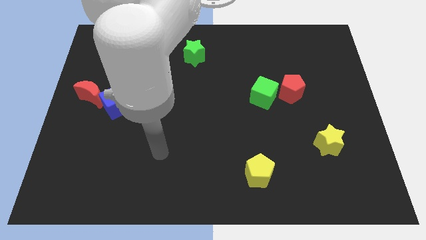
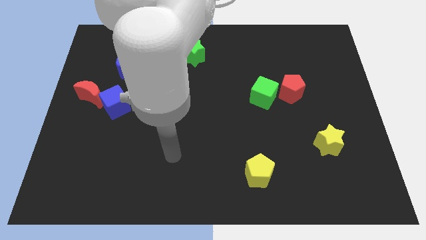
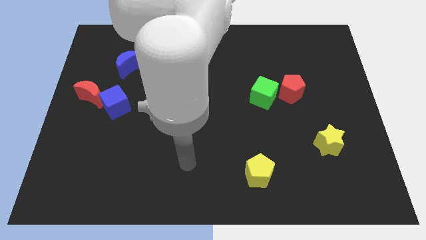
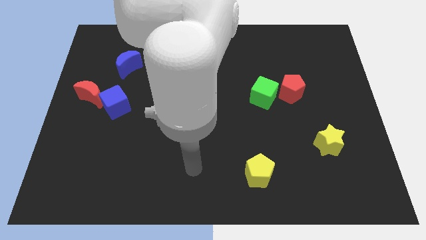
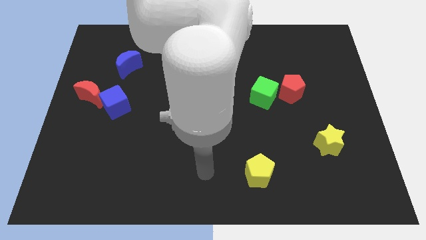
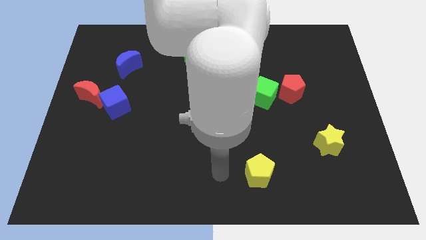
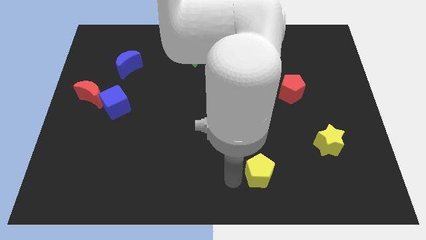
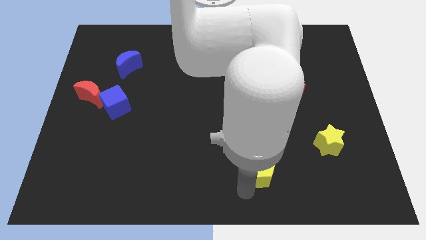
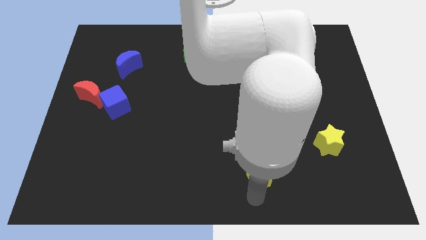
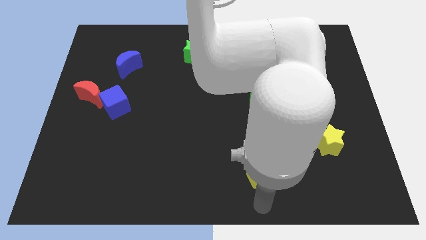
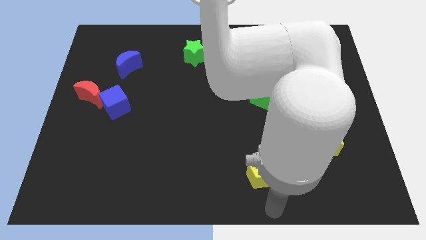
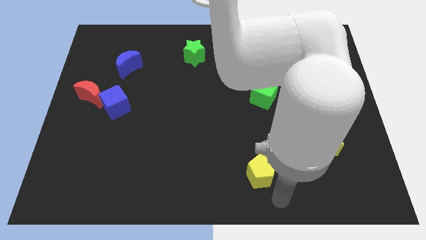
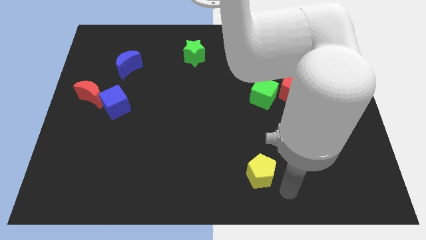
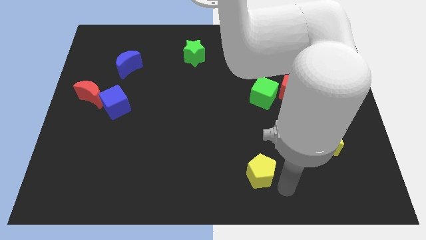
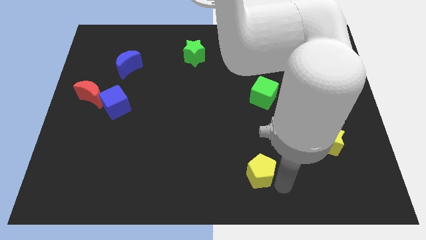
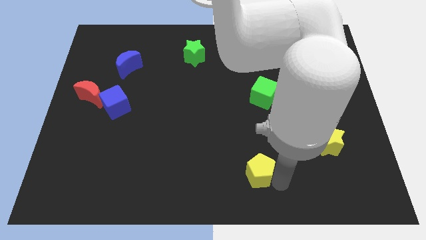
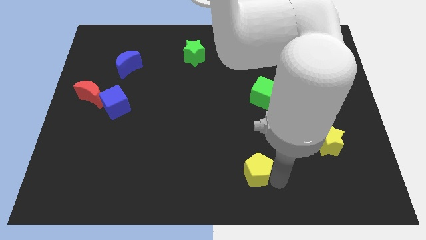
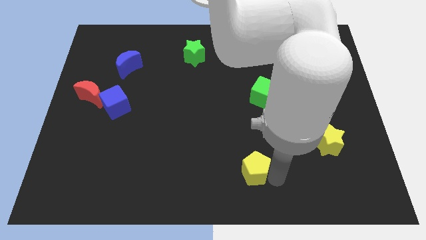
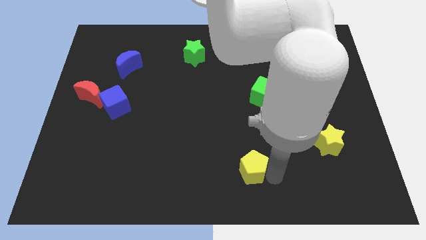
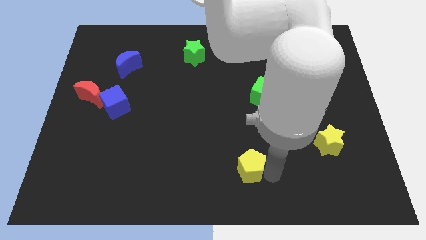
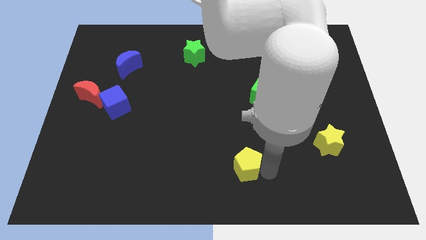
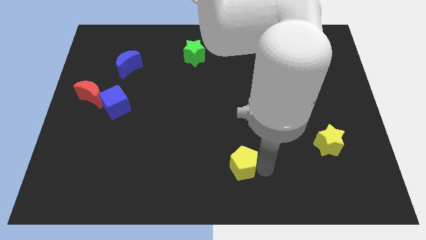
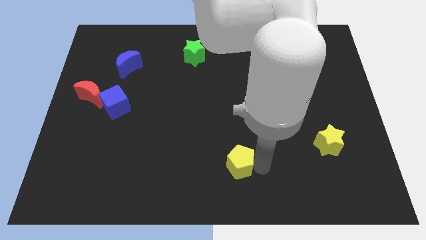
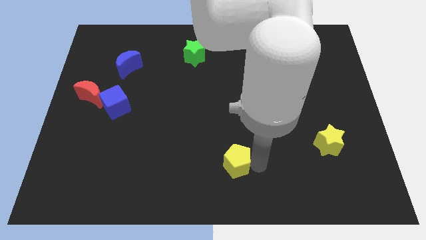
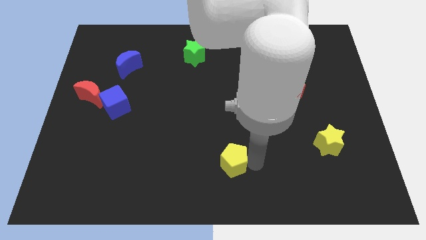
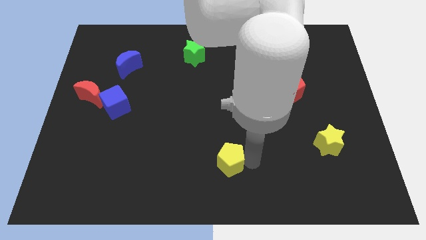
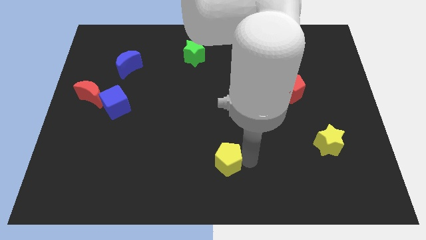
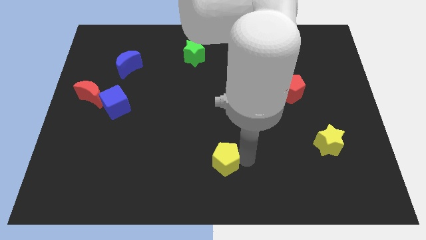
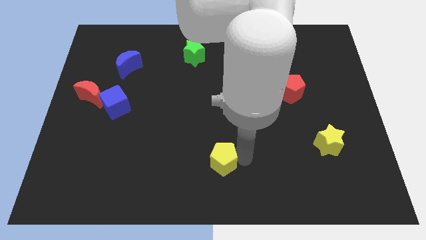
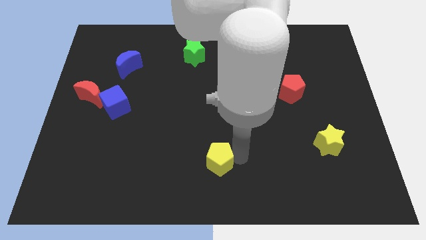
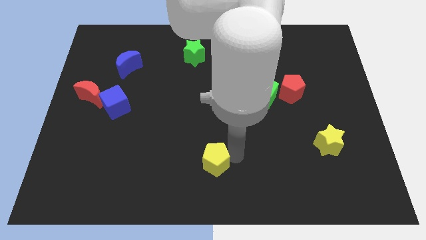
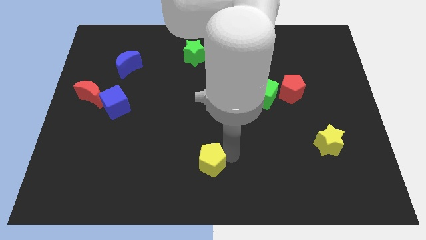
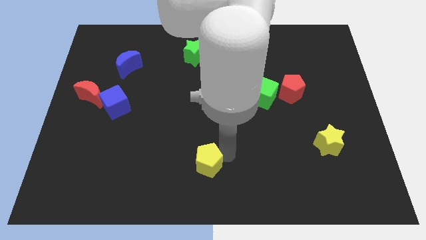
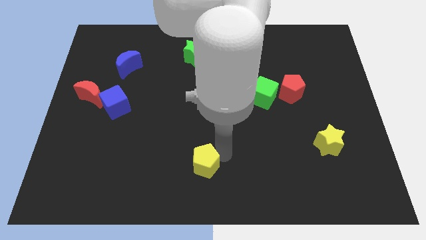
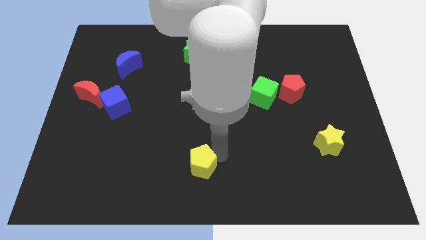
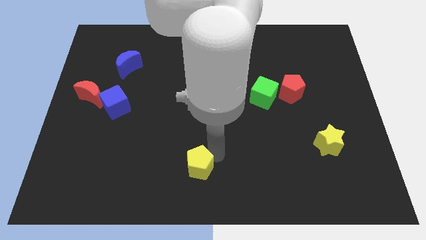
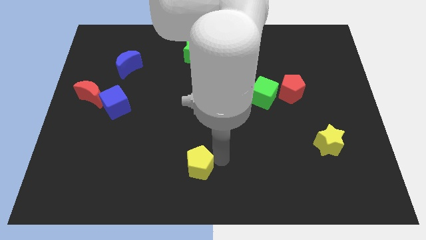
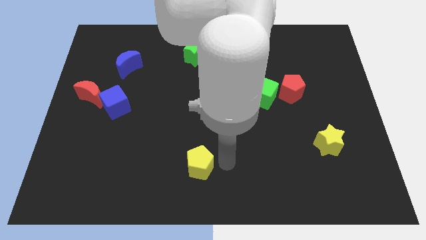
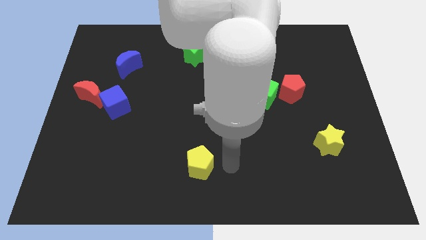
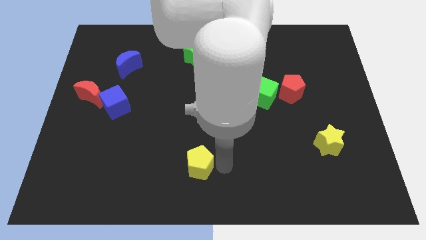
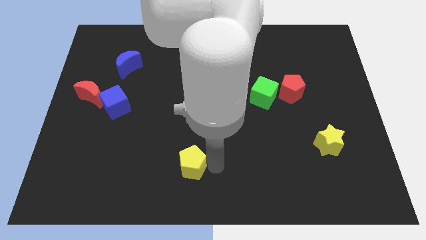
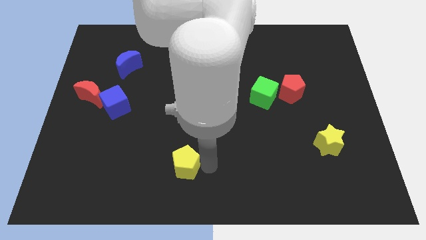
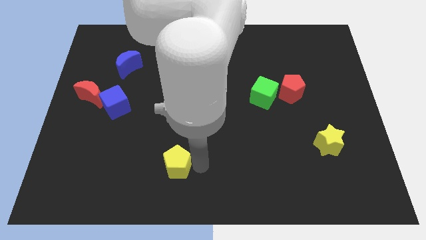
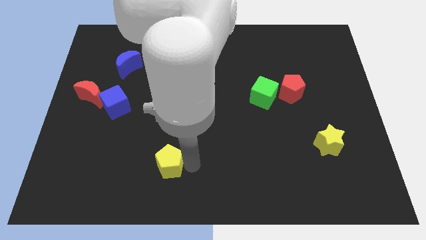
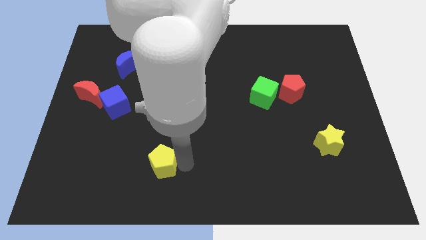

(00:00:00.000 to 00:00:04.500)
push the yellow pentagon left

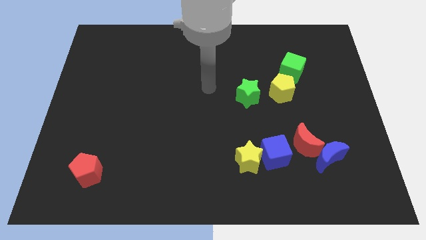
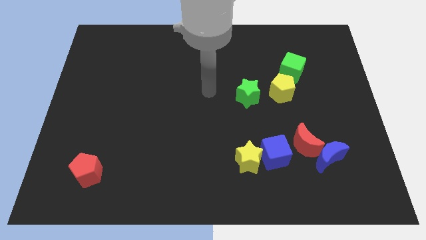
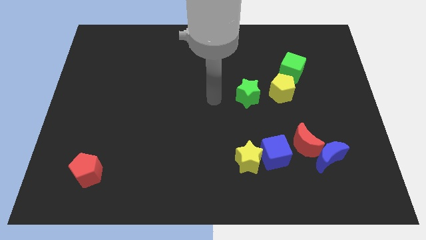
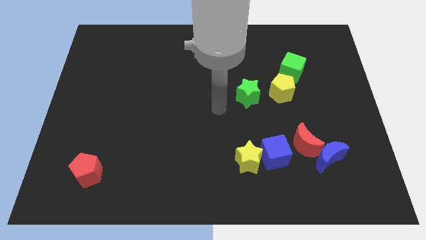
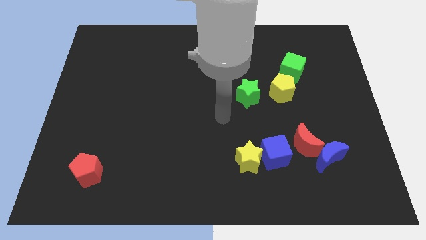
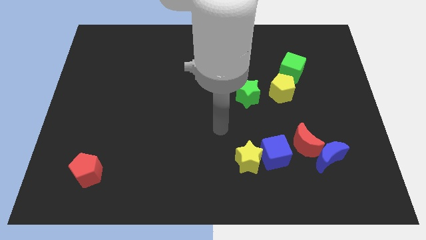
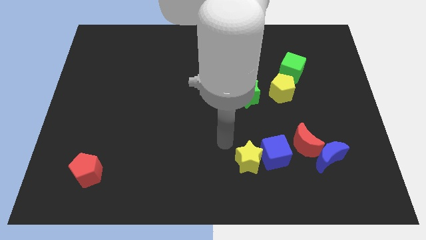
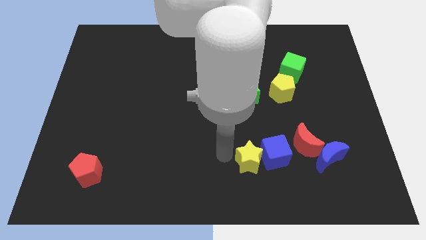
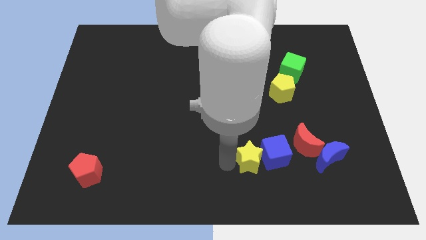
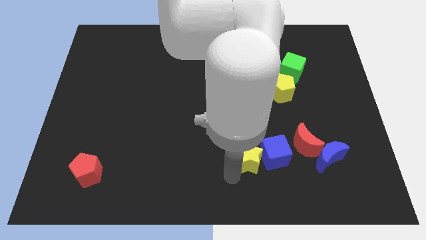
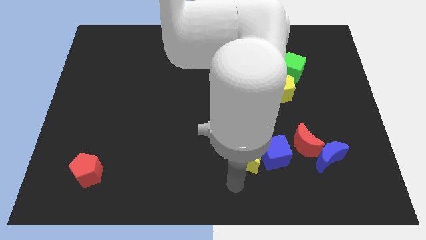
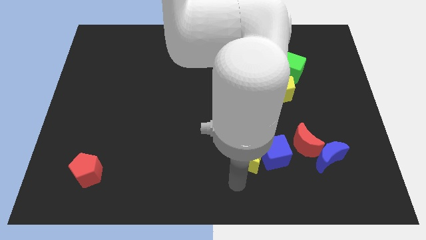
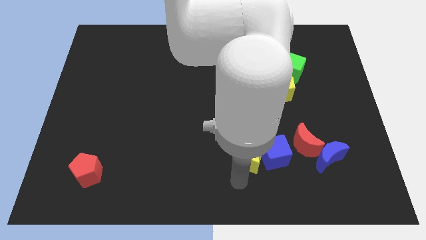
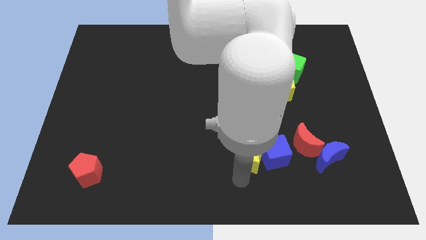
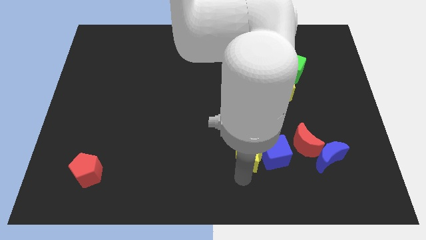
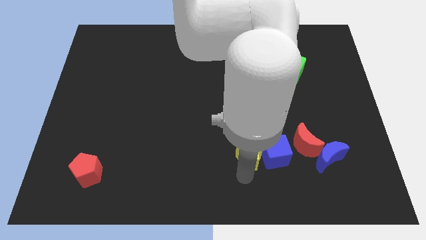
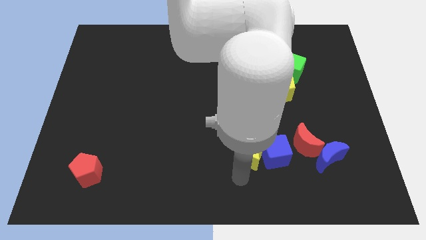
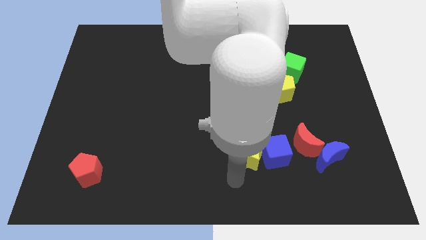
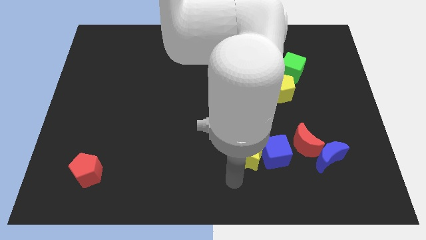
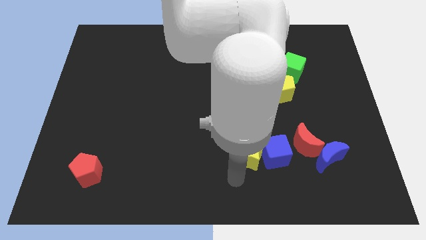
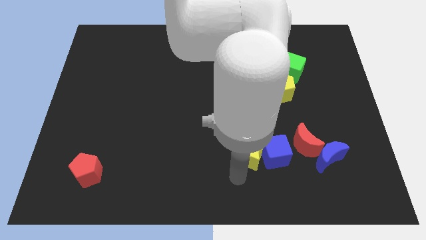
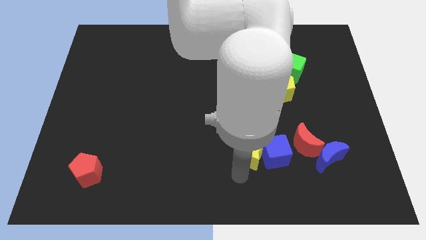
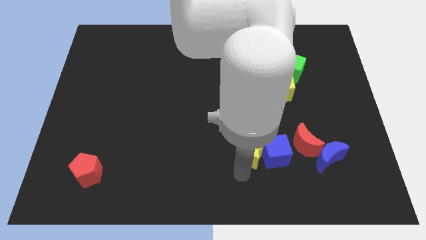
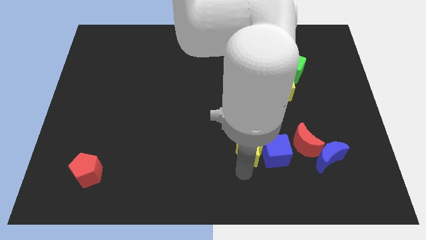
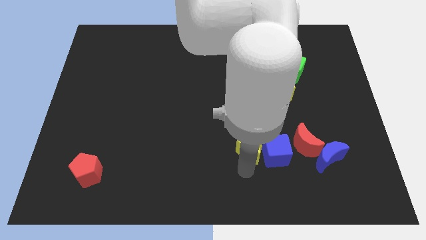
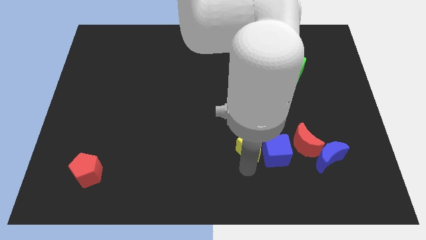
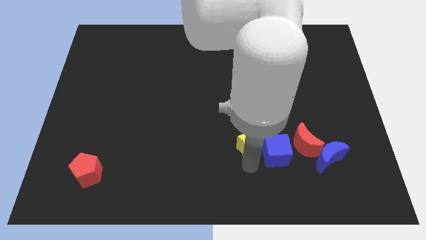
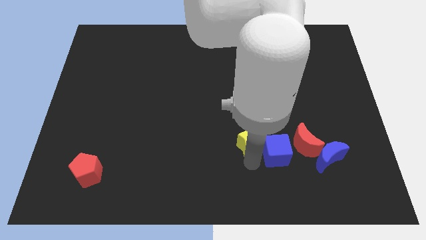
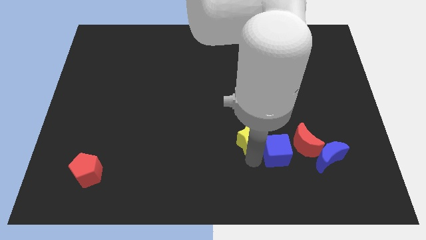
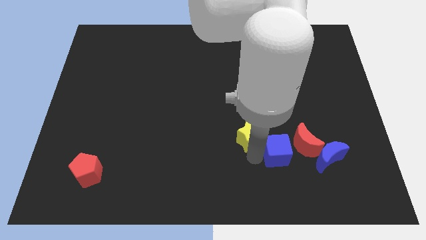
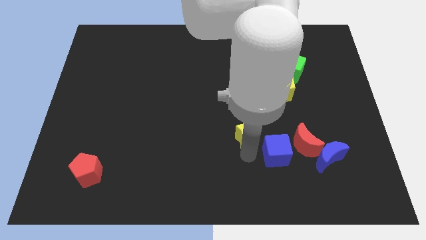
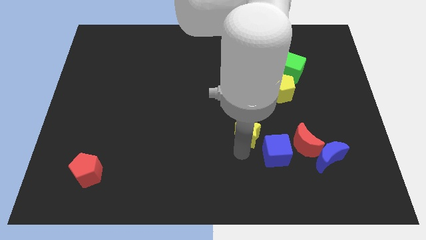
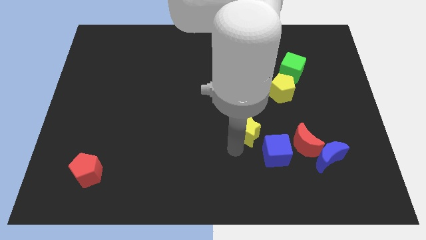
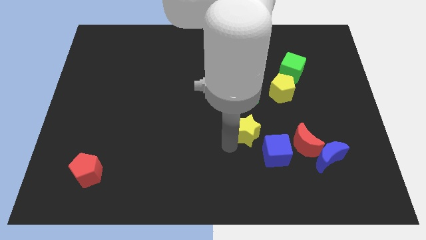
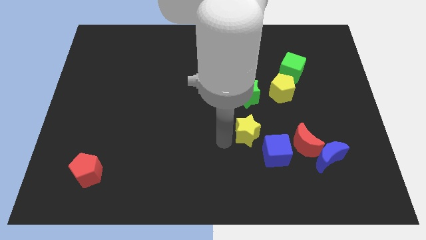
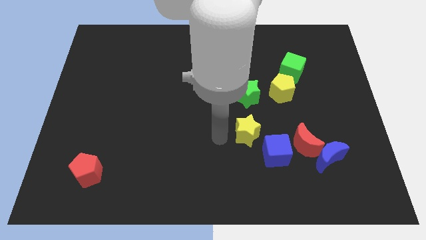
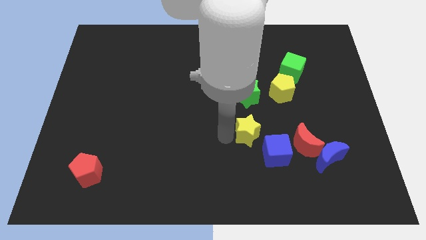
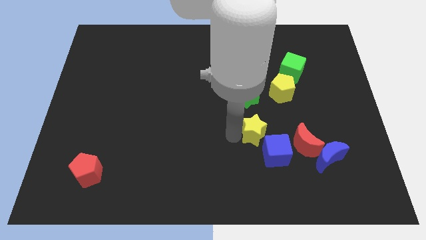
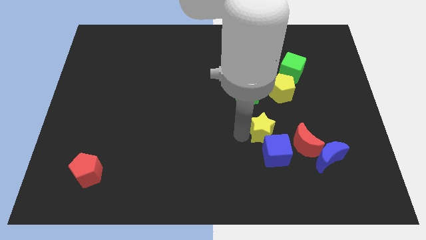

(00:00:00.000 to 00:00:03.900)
slide the yellow star upwards and right slightly

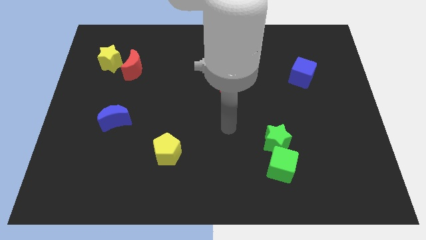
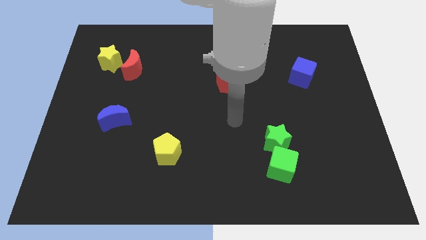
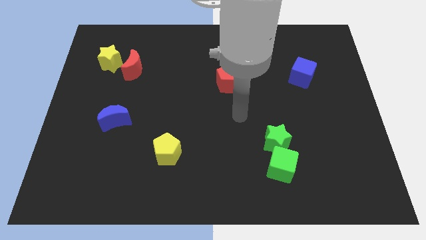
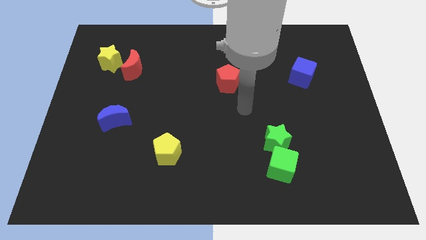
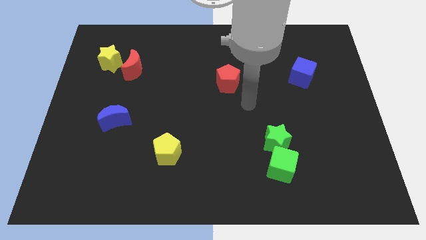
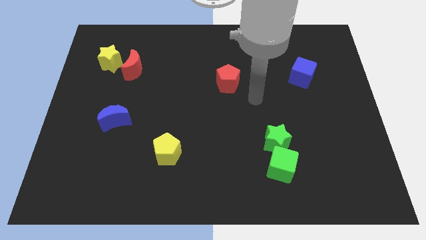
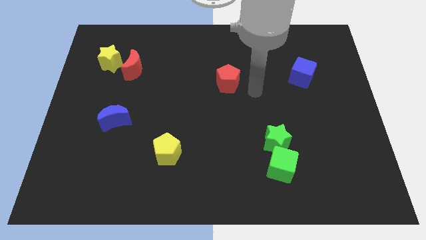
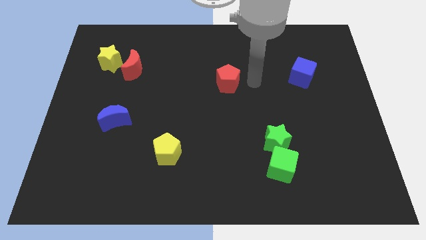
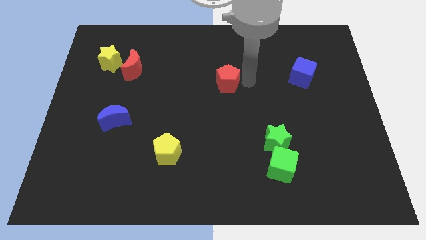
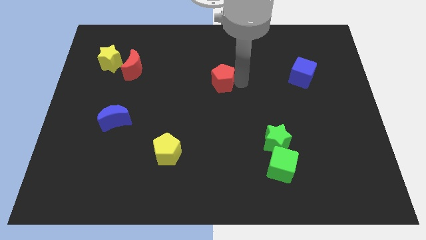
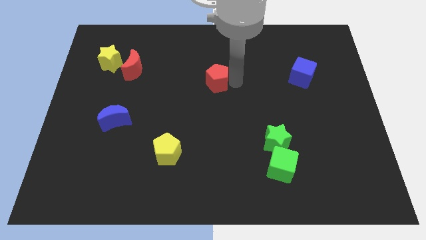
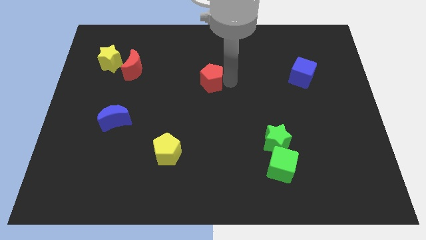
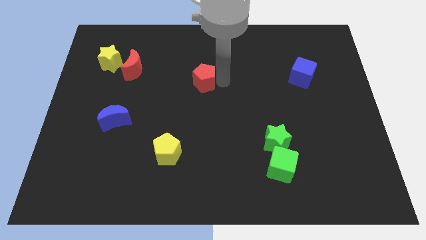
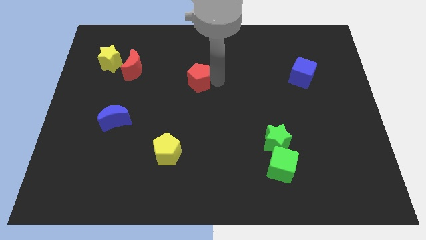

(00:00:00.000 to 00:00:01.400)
slide the red pentagon a bit to the left
